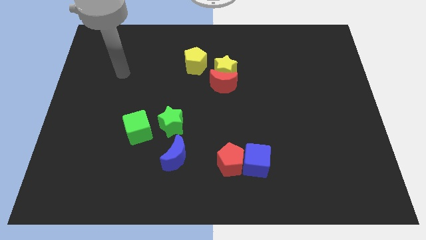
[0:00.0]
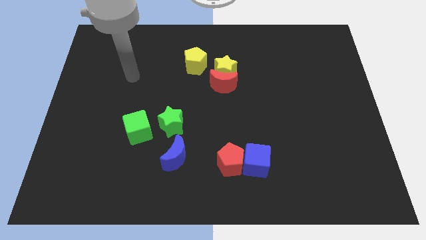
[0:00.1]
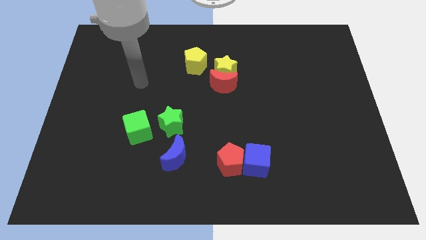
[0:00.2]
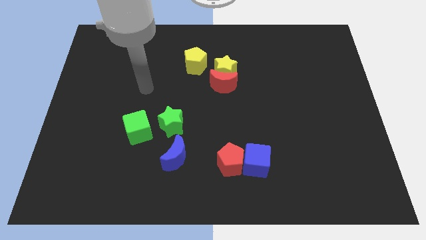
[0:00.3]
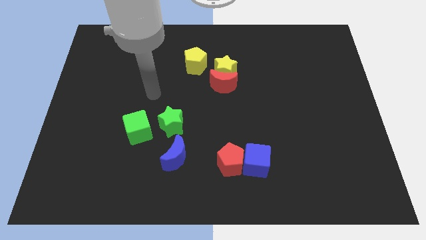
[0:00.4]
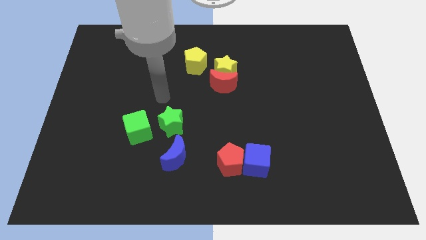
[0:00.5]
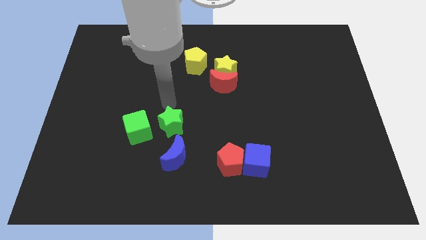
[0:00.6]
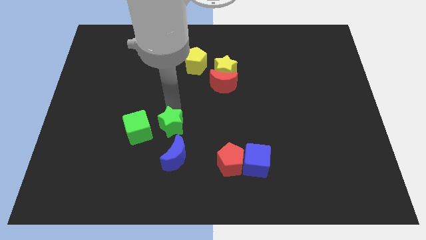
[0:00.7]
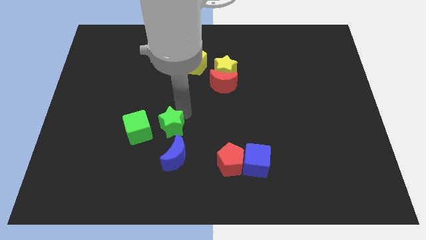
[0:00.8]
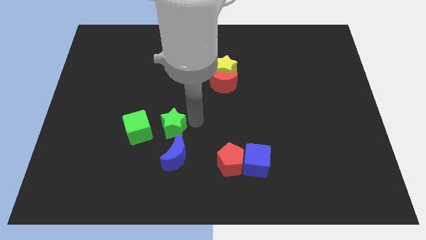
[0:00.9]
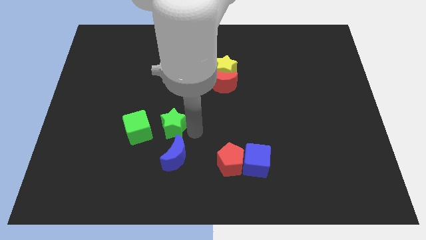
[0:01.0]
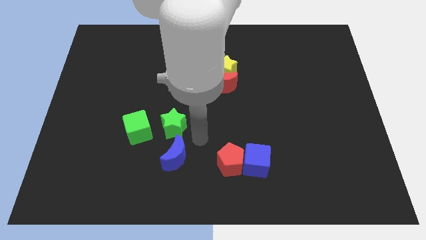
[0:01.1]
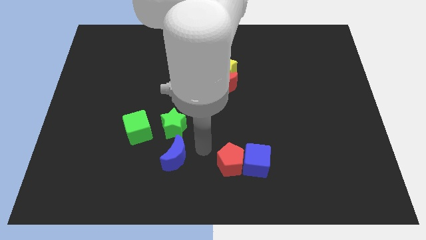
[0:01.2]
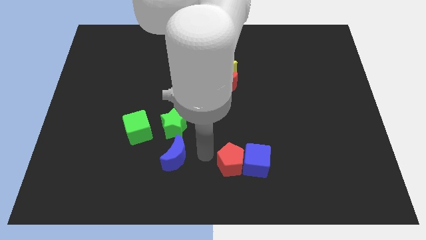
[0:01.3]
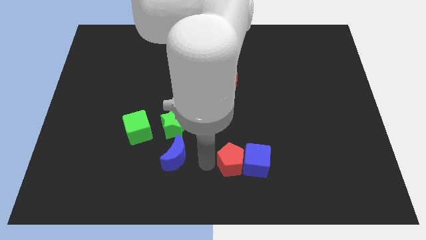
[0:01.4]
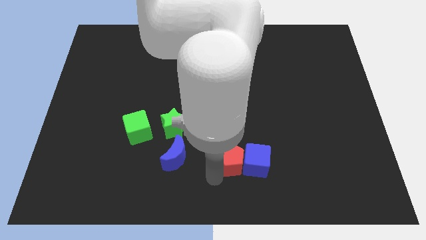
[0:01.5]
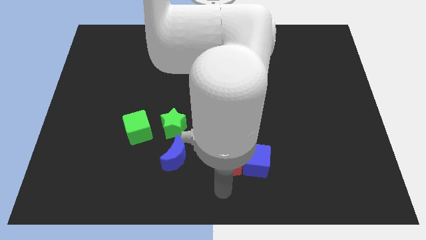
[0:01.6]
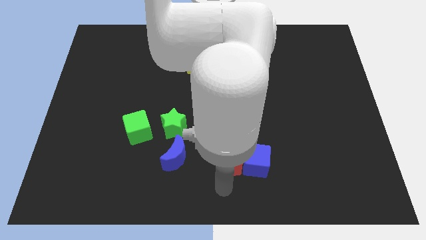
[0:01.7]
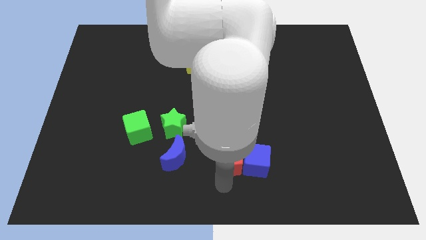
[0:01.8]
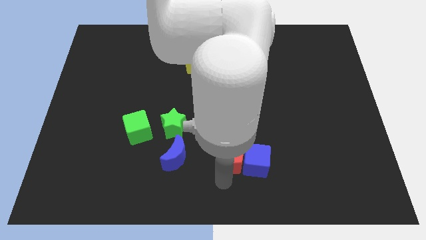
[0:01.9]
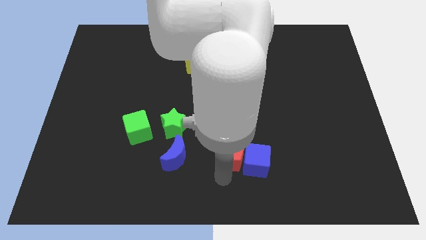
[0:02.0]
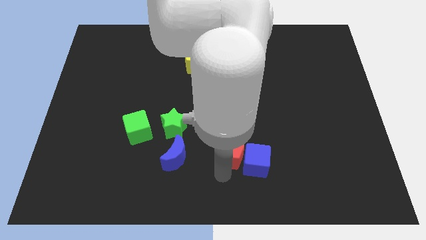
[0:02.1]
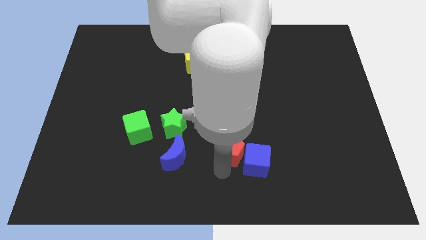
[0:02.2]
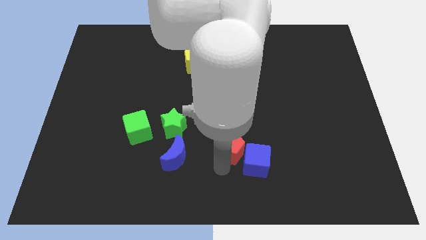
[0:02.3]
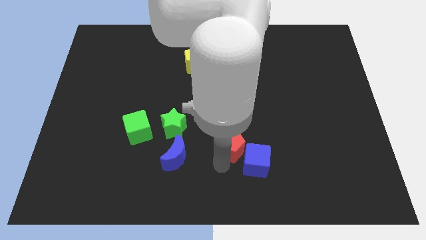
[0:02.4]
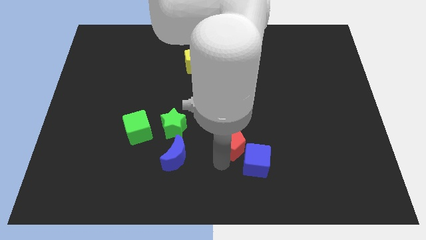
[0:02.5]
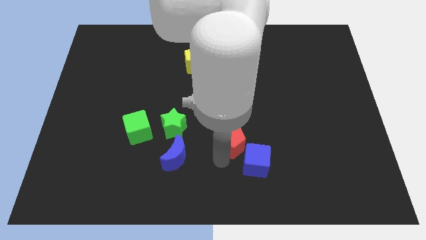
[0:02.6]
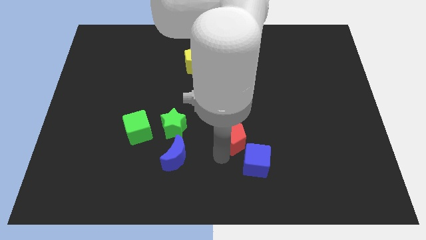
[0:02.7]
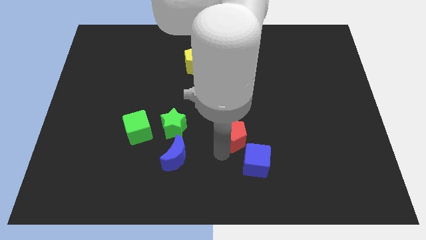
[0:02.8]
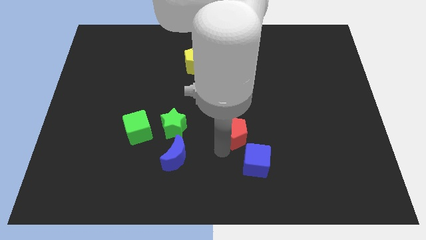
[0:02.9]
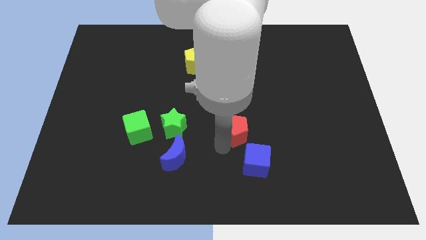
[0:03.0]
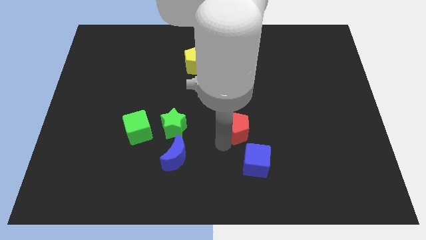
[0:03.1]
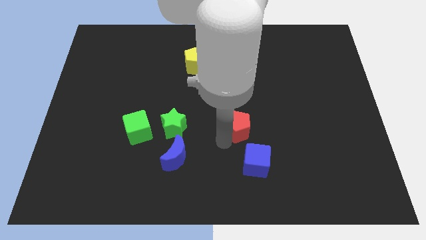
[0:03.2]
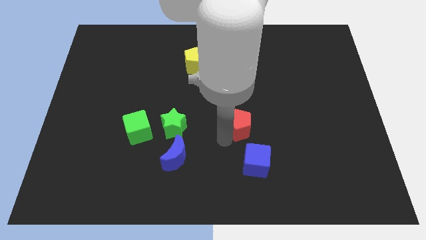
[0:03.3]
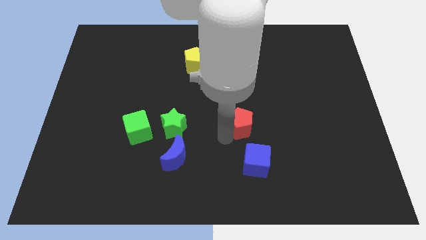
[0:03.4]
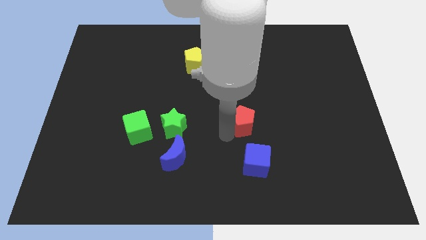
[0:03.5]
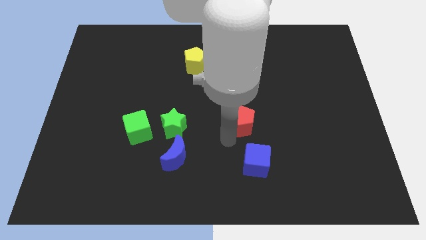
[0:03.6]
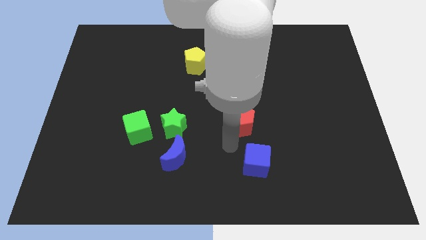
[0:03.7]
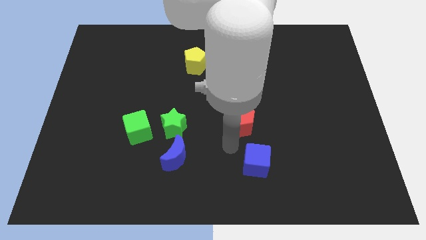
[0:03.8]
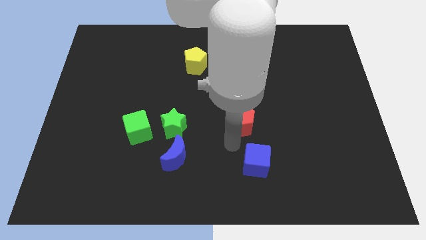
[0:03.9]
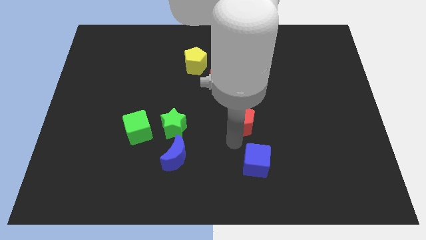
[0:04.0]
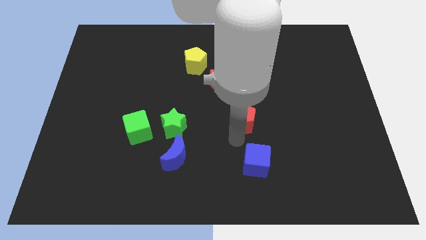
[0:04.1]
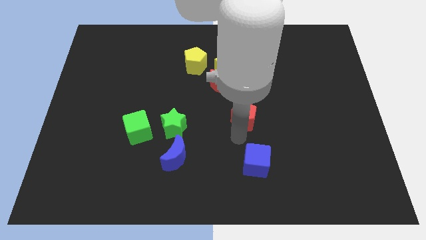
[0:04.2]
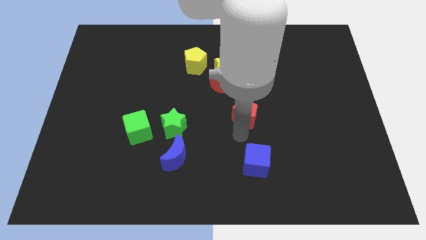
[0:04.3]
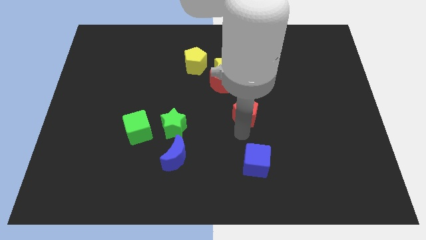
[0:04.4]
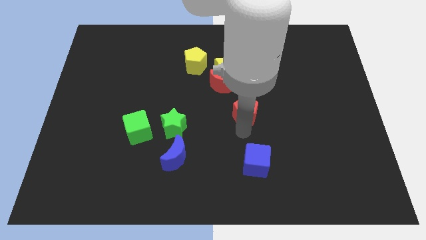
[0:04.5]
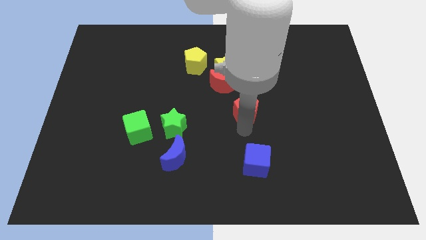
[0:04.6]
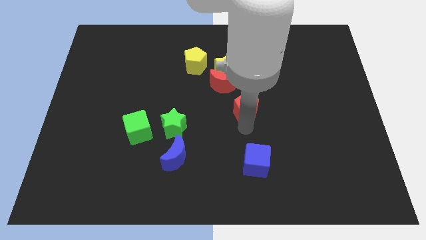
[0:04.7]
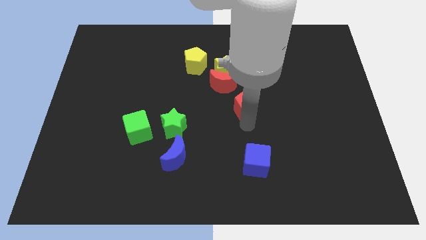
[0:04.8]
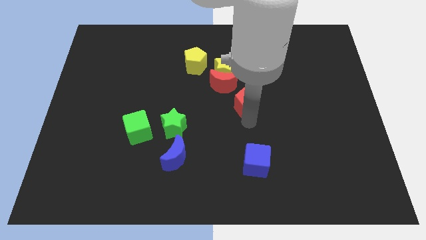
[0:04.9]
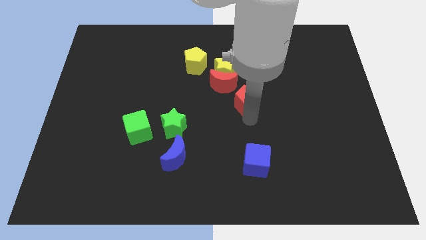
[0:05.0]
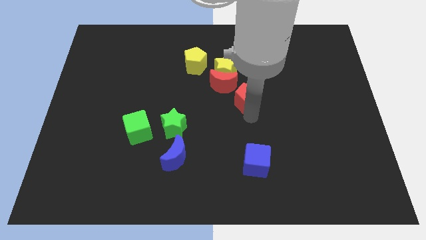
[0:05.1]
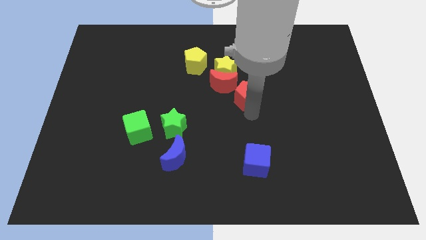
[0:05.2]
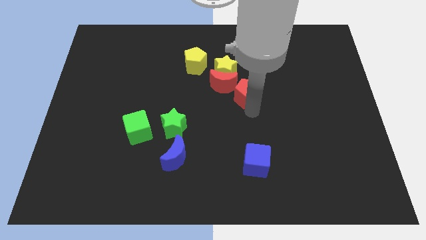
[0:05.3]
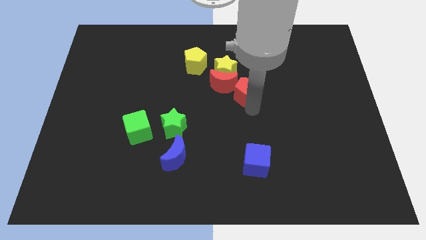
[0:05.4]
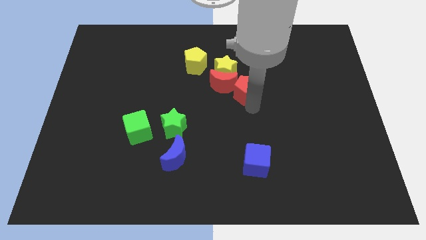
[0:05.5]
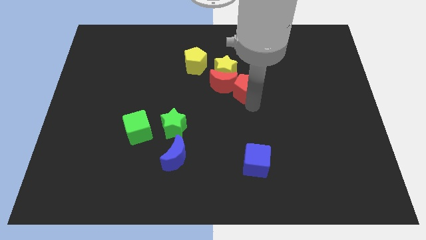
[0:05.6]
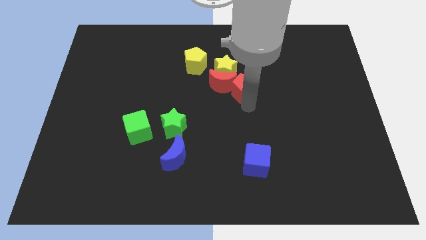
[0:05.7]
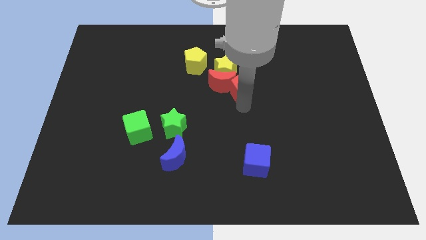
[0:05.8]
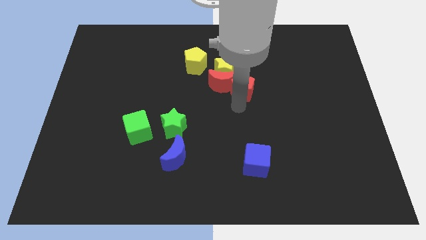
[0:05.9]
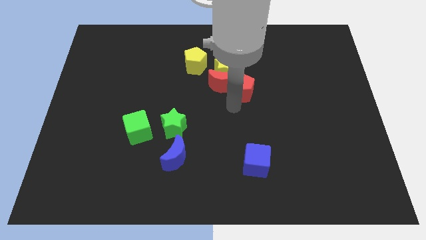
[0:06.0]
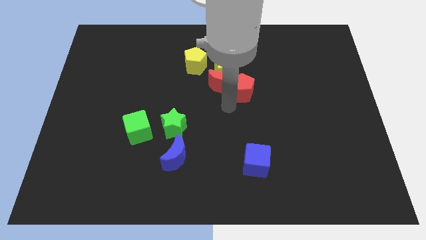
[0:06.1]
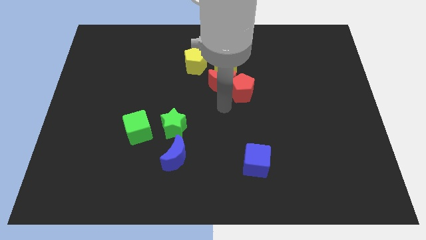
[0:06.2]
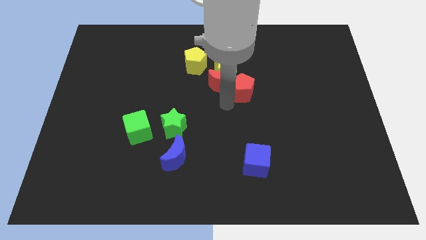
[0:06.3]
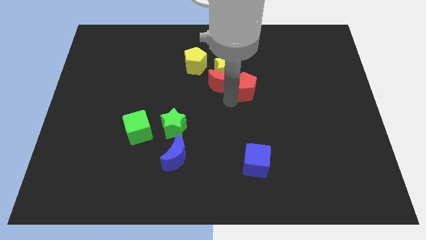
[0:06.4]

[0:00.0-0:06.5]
move the red pentagon up

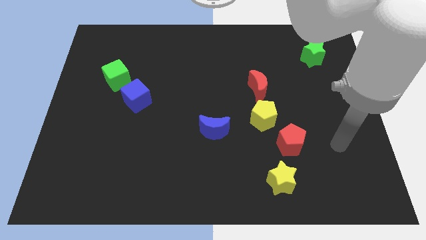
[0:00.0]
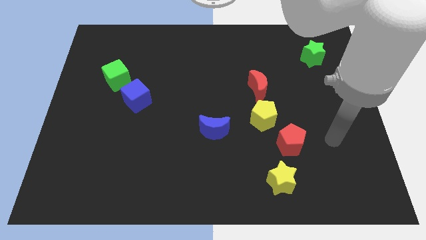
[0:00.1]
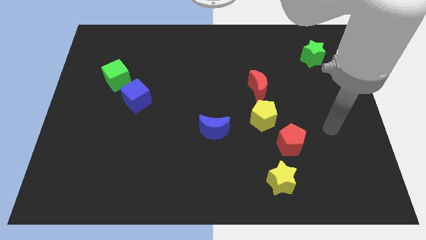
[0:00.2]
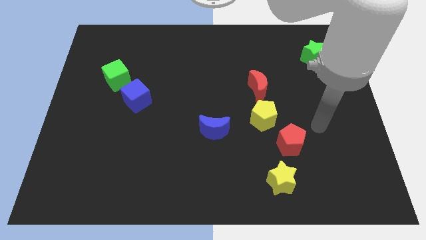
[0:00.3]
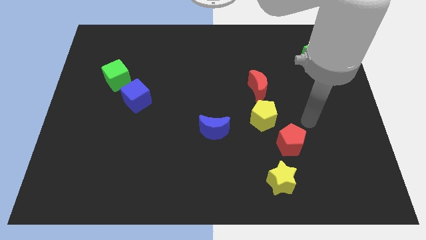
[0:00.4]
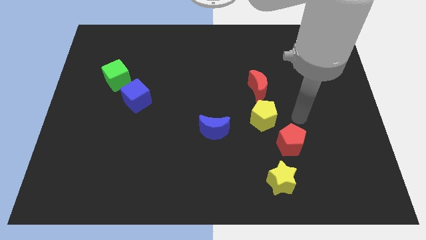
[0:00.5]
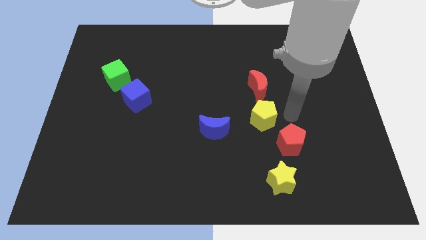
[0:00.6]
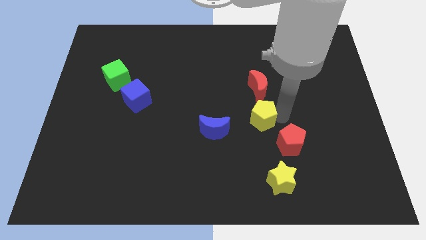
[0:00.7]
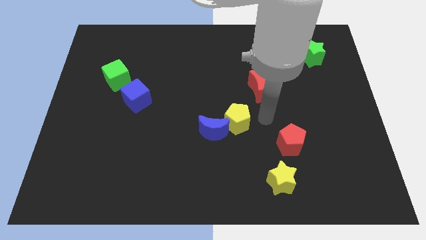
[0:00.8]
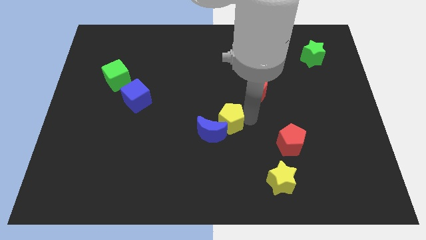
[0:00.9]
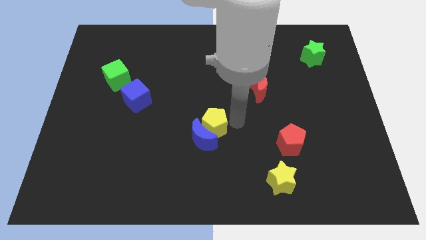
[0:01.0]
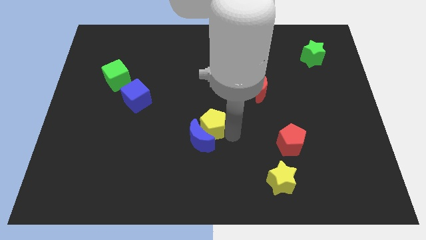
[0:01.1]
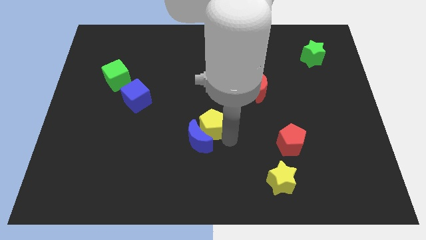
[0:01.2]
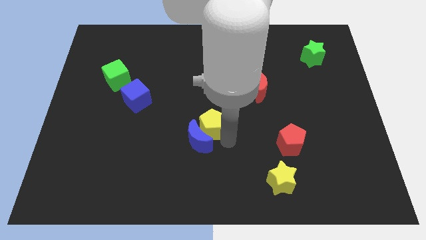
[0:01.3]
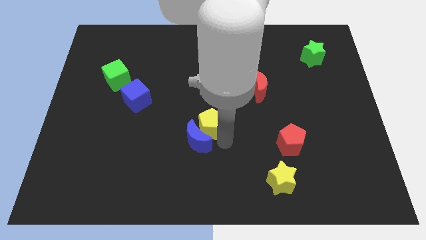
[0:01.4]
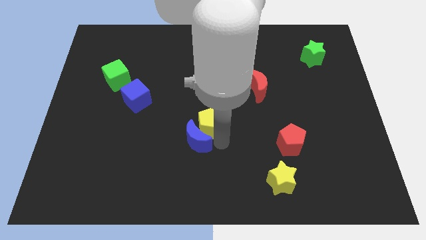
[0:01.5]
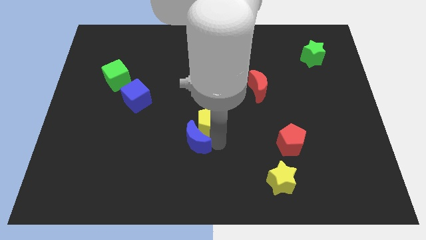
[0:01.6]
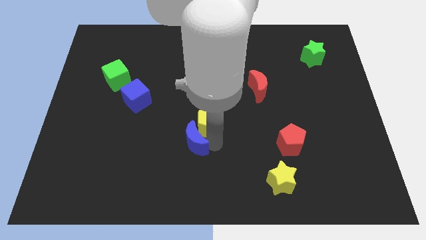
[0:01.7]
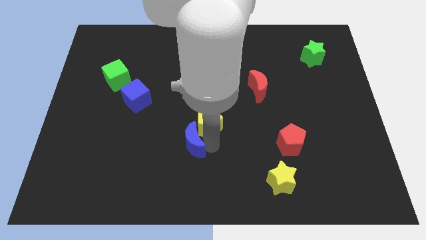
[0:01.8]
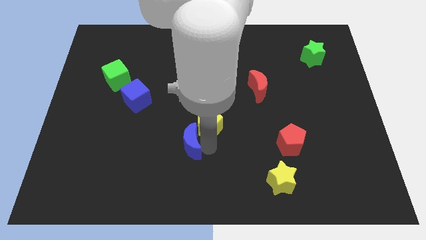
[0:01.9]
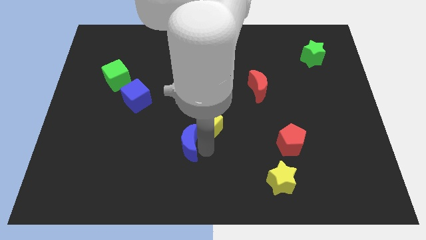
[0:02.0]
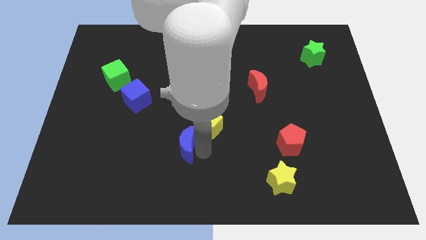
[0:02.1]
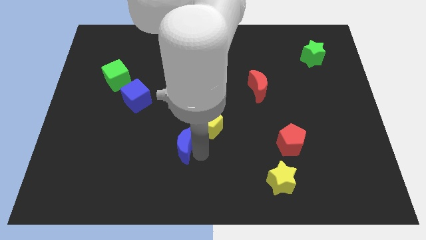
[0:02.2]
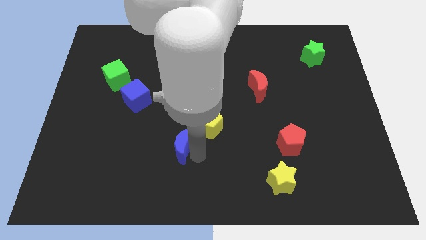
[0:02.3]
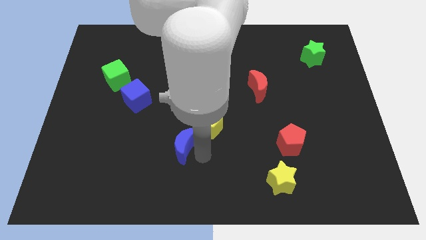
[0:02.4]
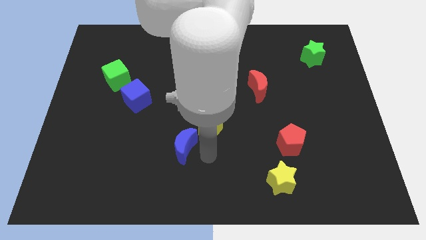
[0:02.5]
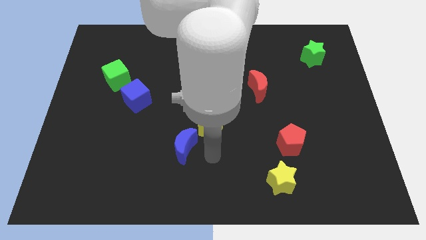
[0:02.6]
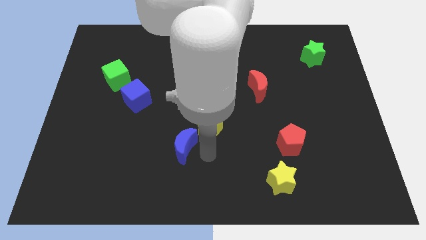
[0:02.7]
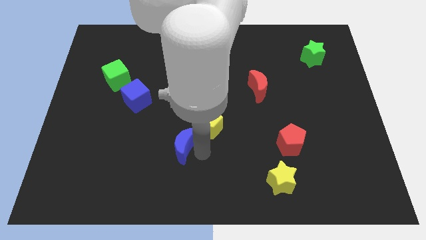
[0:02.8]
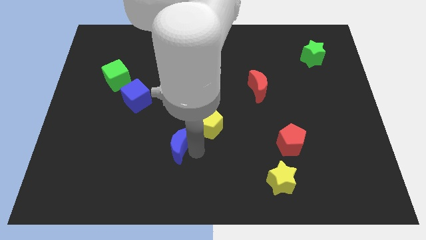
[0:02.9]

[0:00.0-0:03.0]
slide the blue moon a little left
